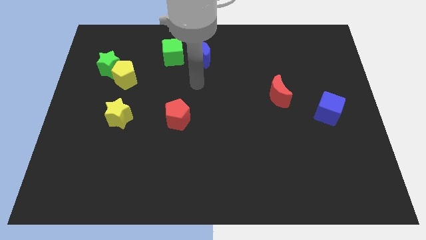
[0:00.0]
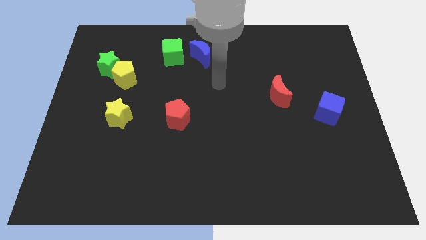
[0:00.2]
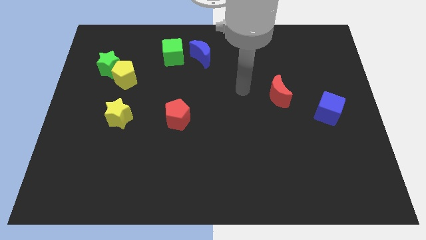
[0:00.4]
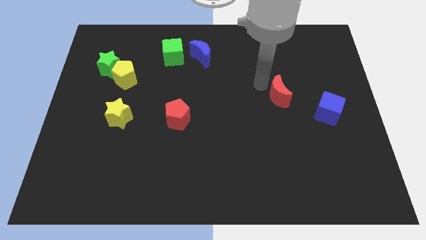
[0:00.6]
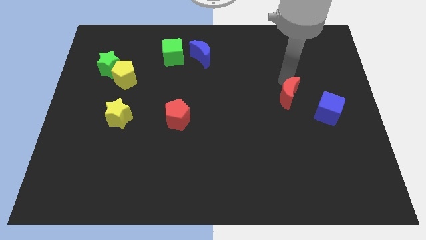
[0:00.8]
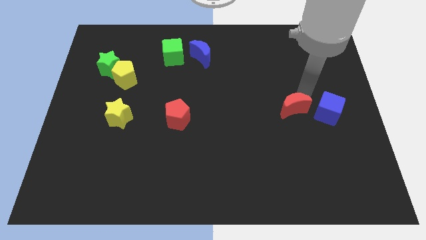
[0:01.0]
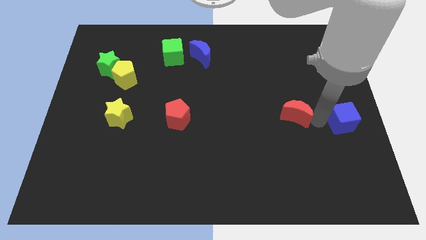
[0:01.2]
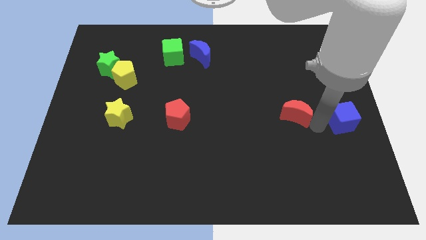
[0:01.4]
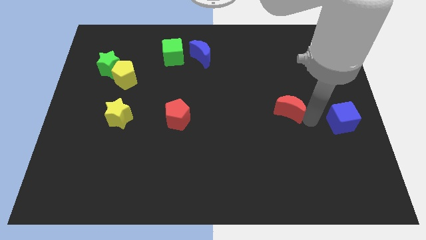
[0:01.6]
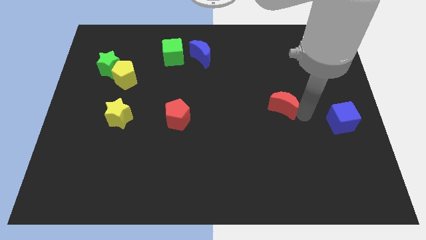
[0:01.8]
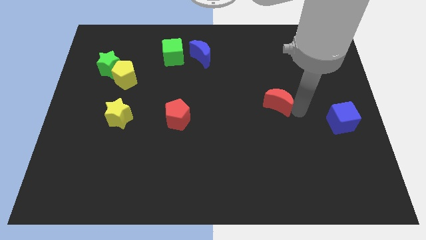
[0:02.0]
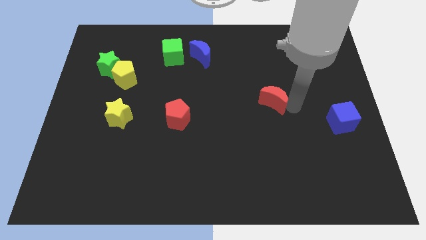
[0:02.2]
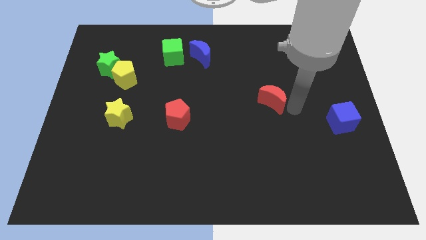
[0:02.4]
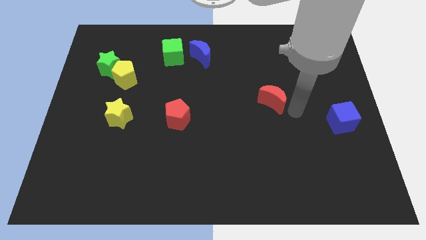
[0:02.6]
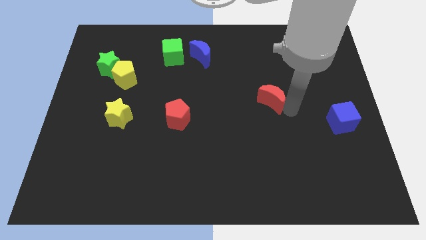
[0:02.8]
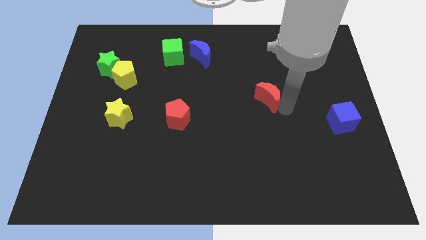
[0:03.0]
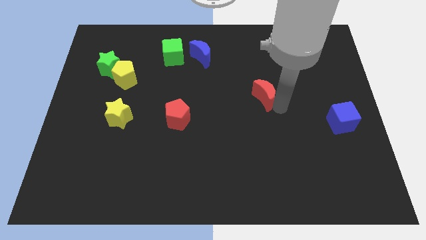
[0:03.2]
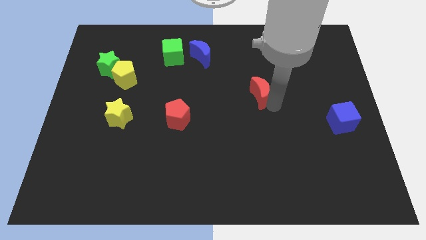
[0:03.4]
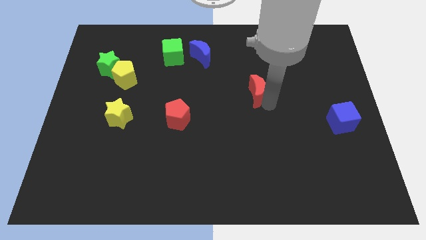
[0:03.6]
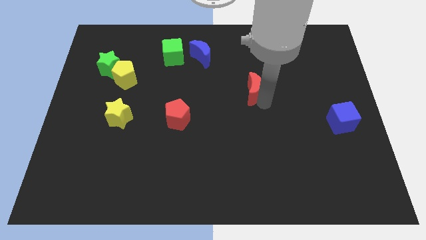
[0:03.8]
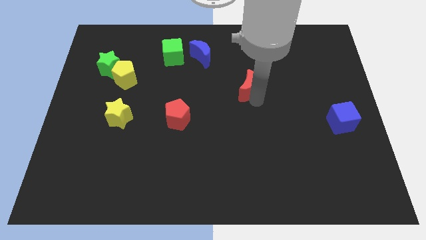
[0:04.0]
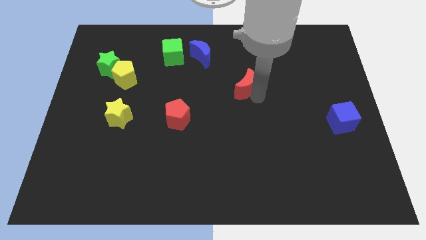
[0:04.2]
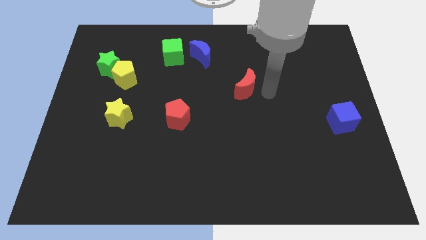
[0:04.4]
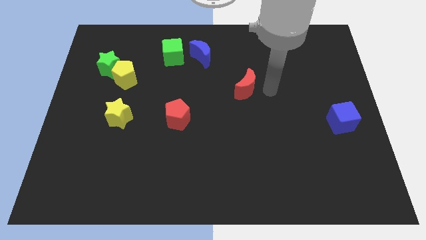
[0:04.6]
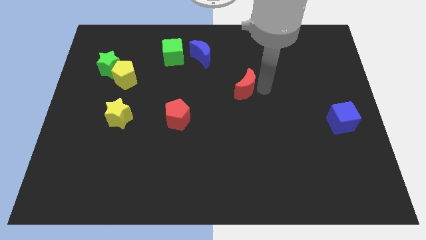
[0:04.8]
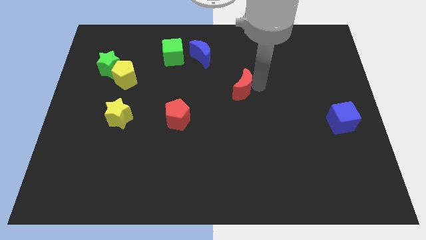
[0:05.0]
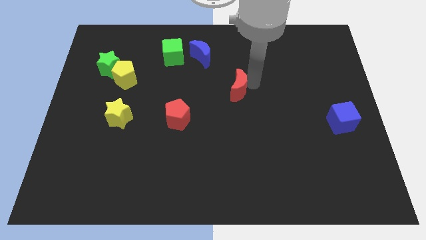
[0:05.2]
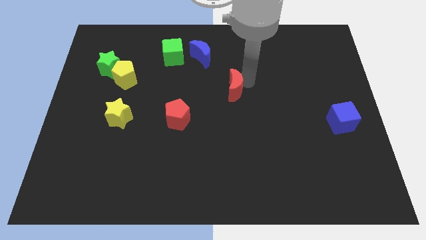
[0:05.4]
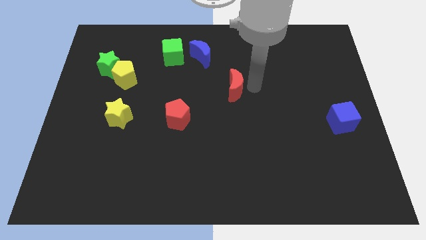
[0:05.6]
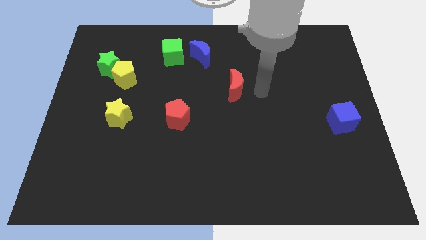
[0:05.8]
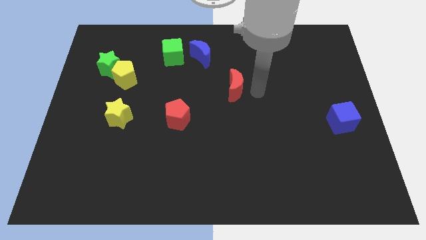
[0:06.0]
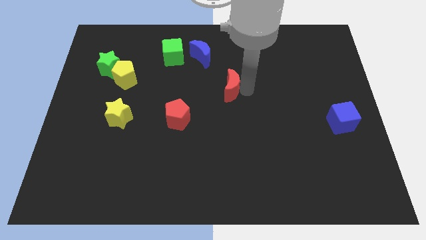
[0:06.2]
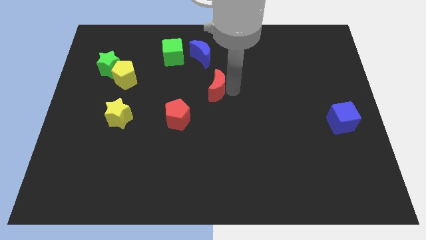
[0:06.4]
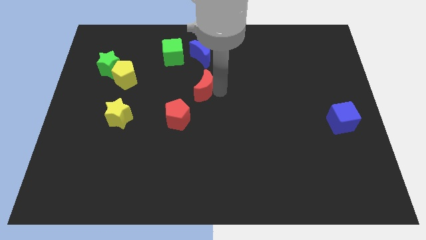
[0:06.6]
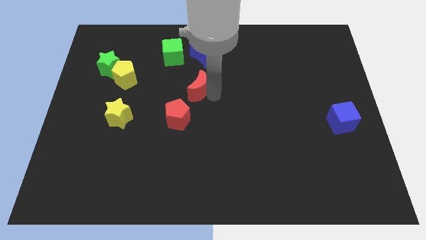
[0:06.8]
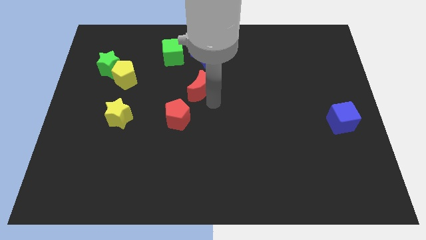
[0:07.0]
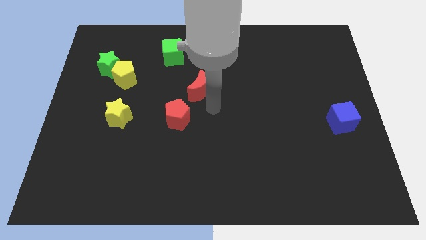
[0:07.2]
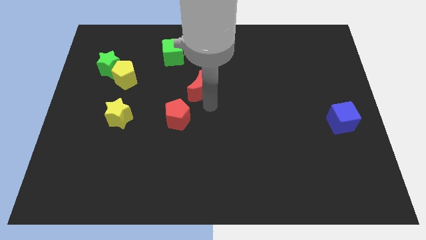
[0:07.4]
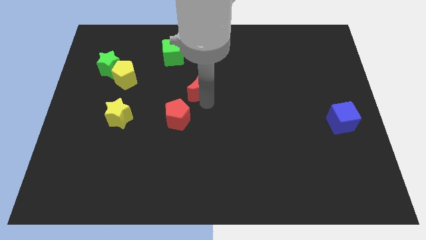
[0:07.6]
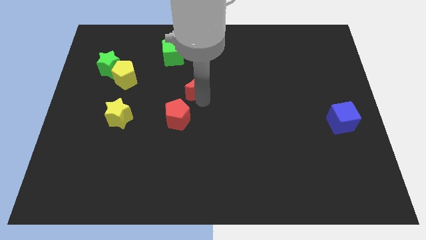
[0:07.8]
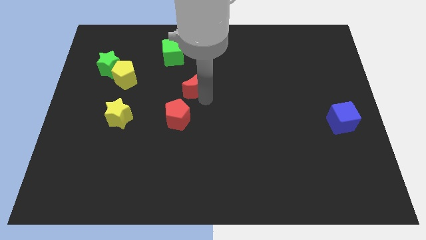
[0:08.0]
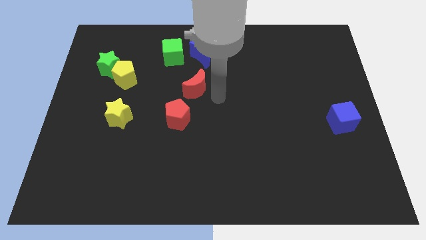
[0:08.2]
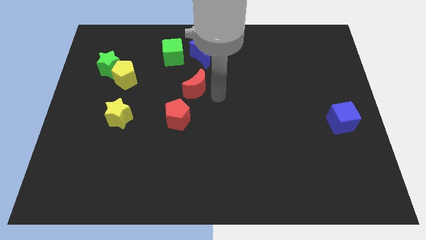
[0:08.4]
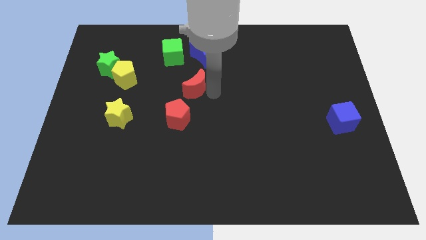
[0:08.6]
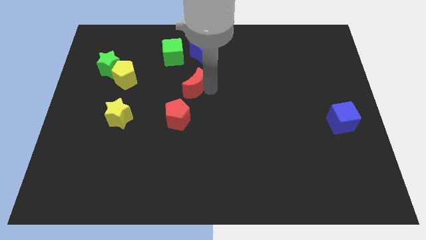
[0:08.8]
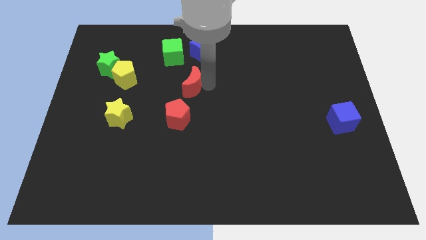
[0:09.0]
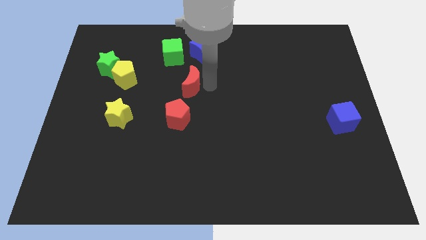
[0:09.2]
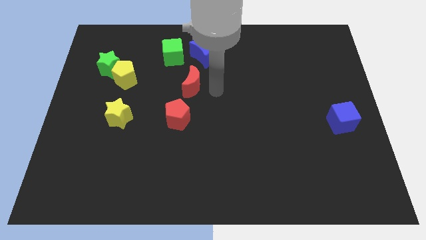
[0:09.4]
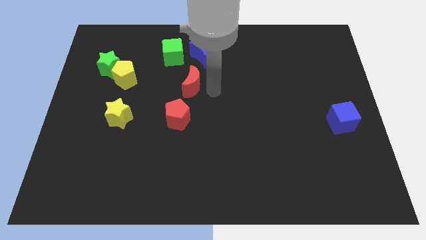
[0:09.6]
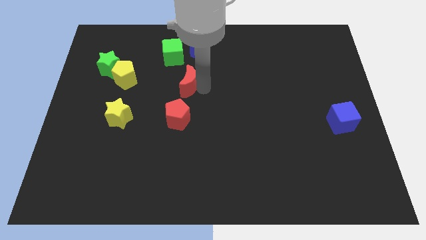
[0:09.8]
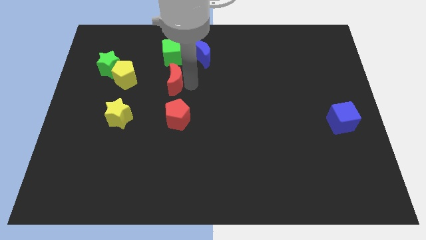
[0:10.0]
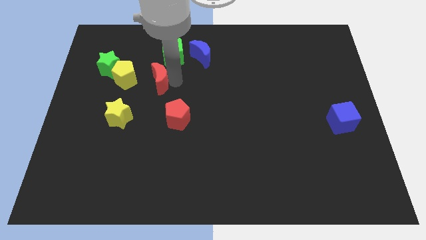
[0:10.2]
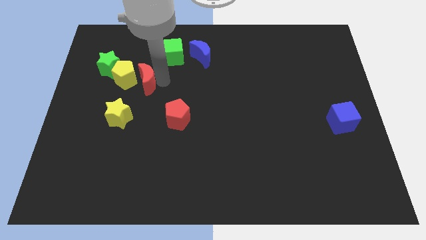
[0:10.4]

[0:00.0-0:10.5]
move the red moon close to the yellow pentagon

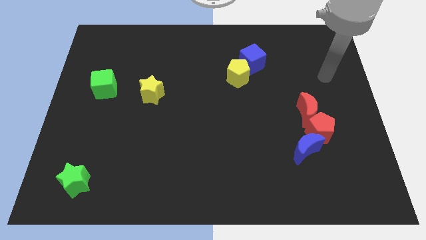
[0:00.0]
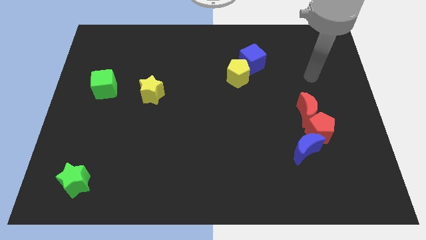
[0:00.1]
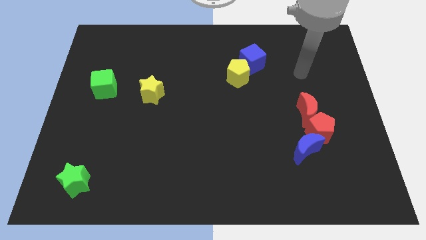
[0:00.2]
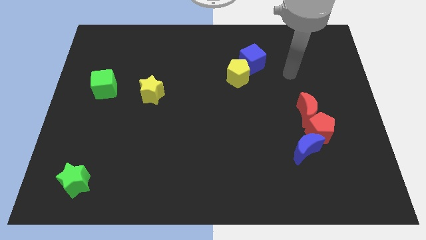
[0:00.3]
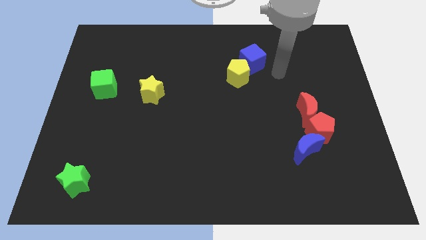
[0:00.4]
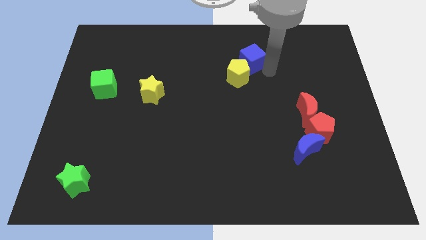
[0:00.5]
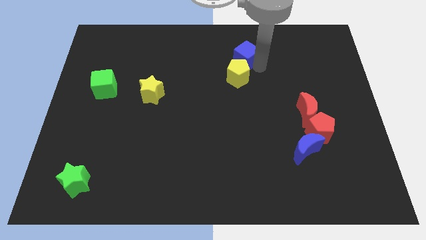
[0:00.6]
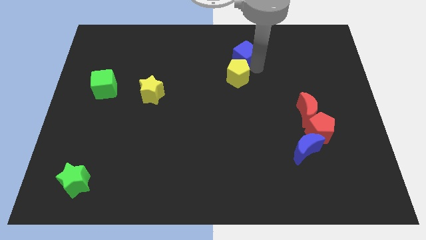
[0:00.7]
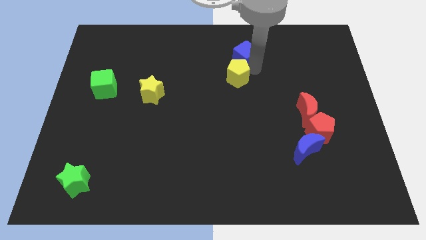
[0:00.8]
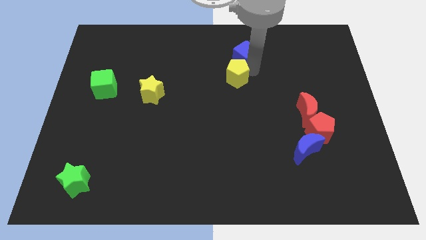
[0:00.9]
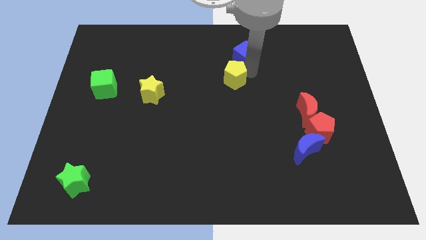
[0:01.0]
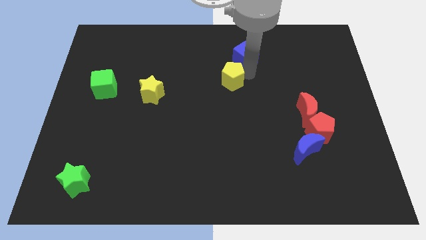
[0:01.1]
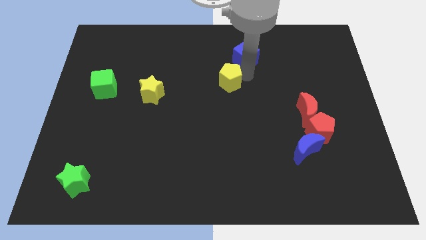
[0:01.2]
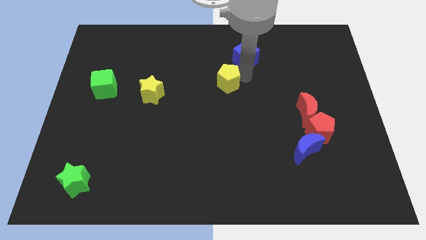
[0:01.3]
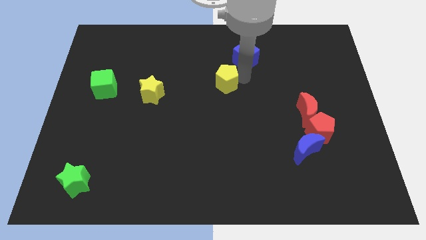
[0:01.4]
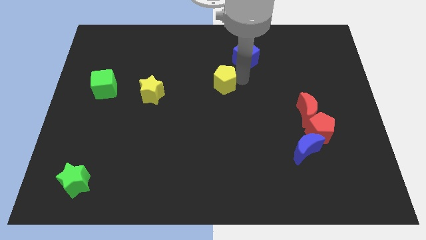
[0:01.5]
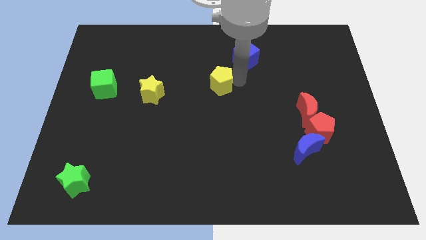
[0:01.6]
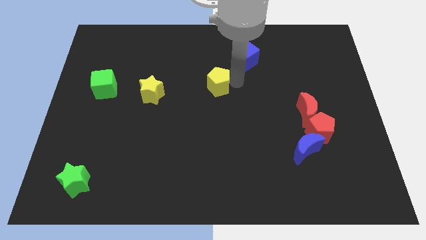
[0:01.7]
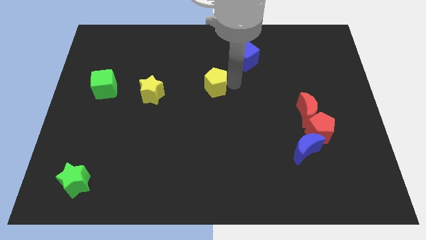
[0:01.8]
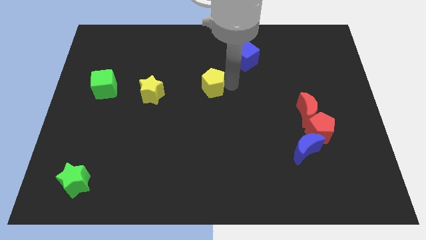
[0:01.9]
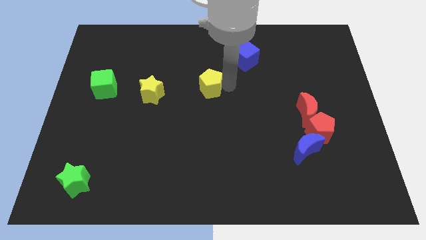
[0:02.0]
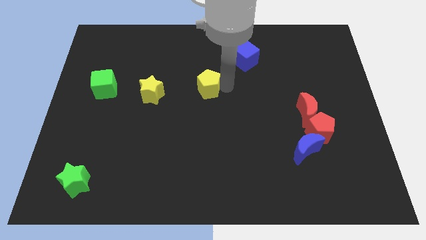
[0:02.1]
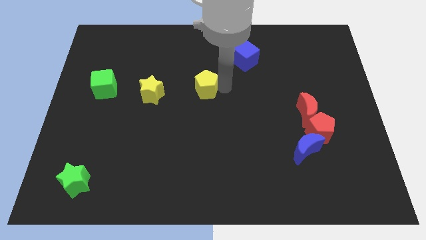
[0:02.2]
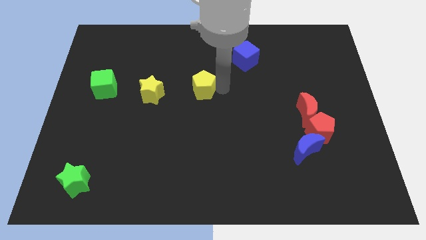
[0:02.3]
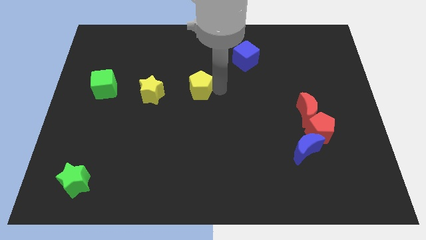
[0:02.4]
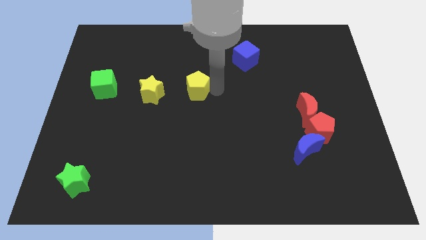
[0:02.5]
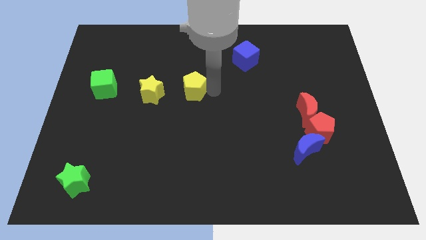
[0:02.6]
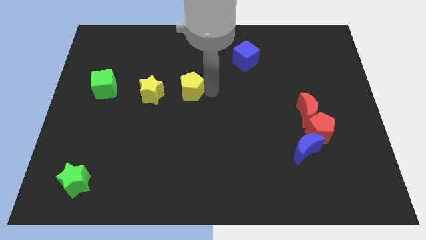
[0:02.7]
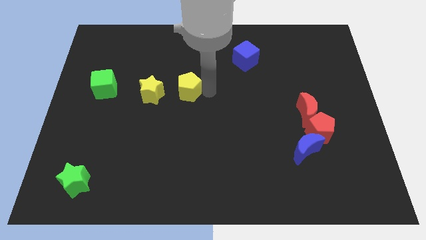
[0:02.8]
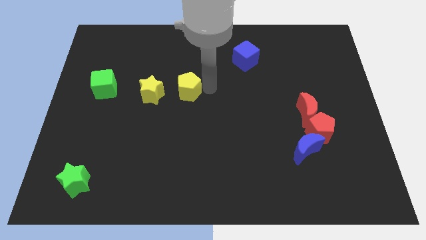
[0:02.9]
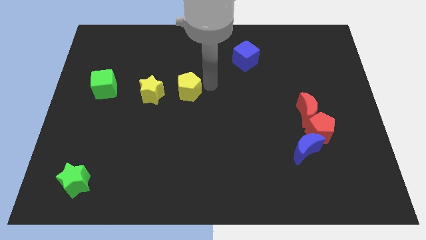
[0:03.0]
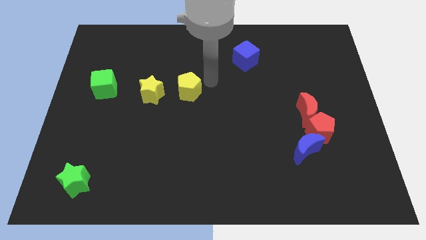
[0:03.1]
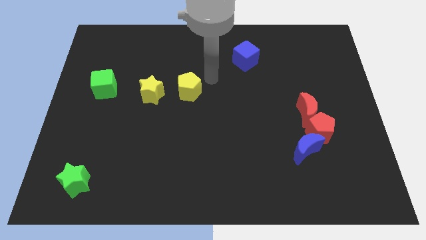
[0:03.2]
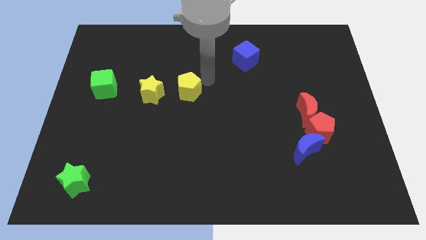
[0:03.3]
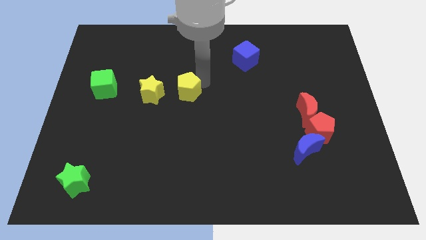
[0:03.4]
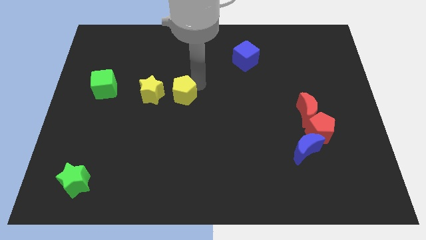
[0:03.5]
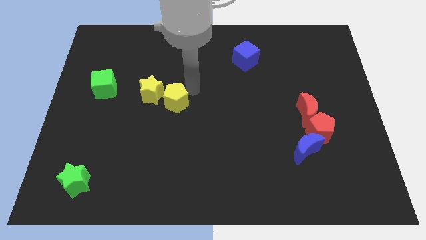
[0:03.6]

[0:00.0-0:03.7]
put the yellow pentagon towards the yellow star
